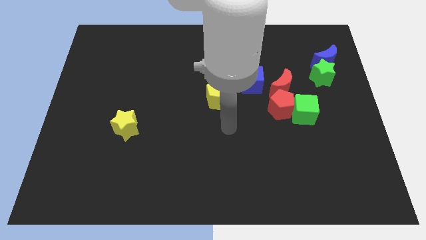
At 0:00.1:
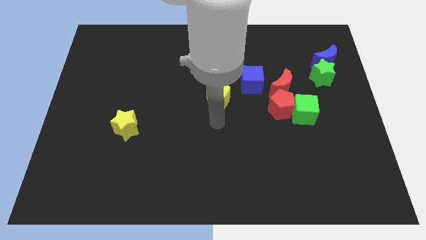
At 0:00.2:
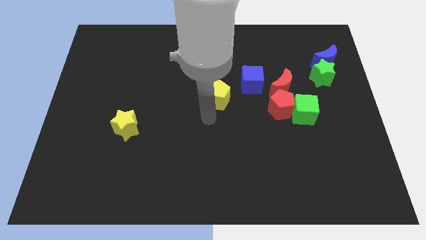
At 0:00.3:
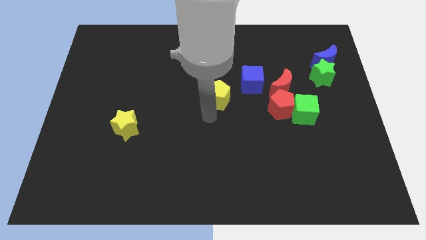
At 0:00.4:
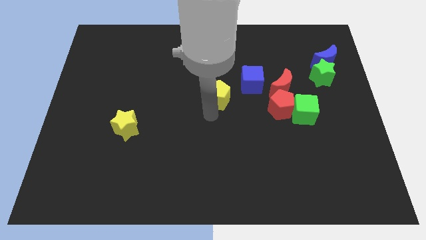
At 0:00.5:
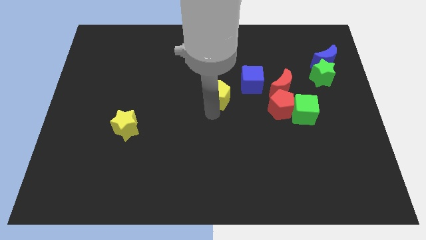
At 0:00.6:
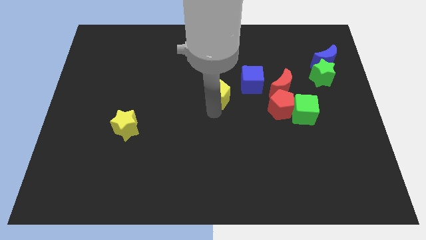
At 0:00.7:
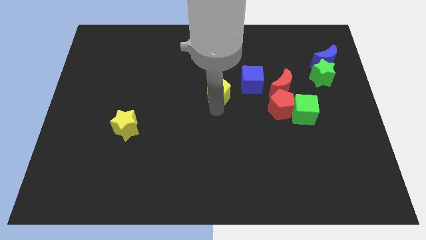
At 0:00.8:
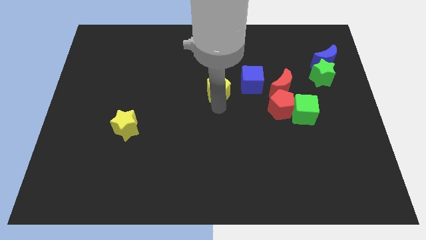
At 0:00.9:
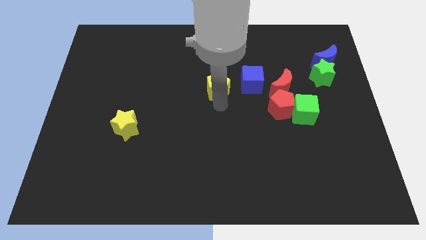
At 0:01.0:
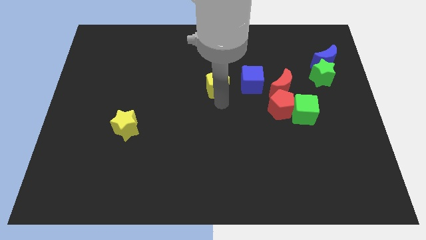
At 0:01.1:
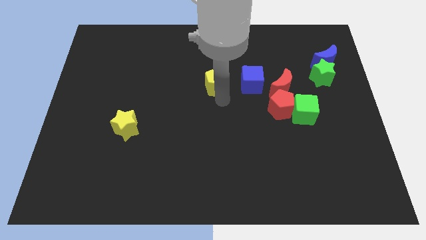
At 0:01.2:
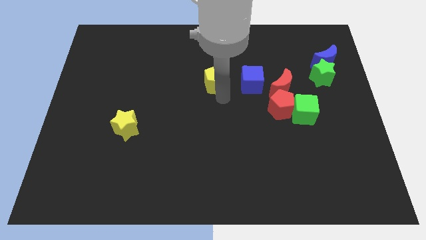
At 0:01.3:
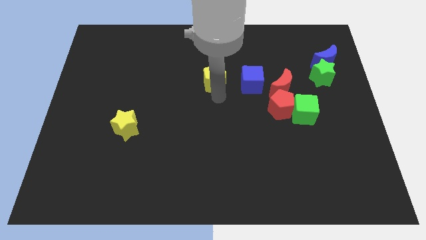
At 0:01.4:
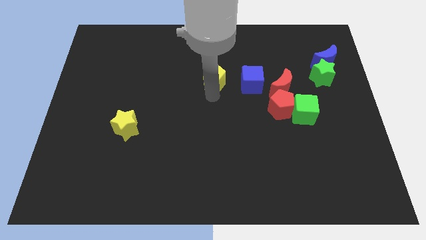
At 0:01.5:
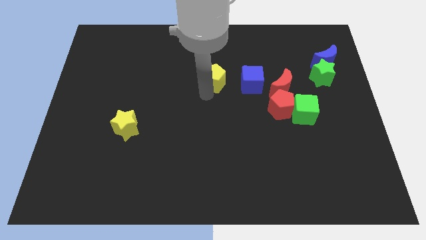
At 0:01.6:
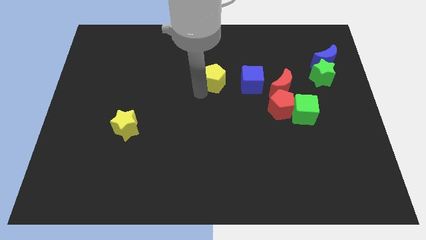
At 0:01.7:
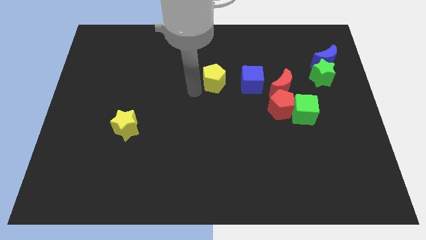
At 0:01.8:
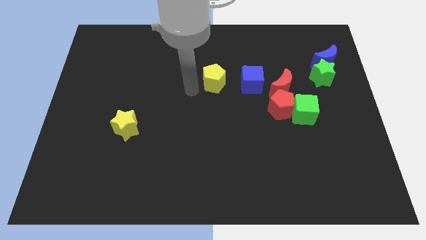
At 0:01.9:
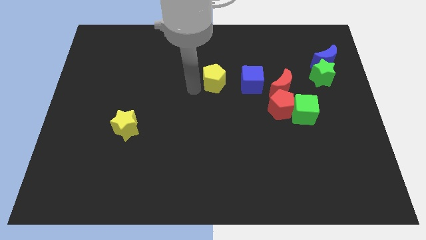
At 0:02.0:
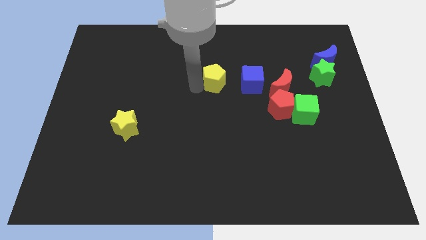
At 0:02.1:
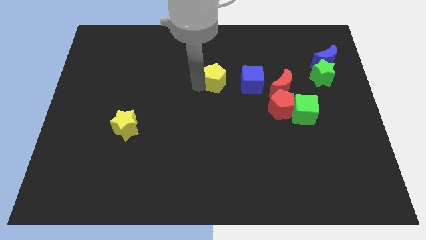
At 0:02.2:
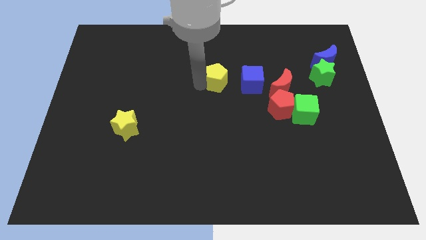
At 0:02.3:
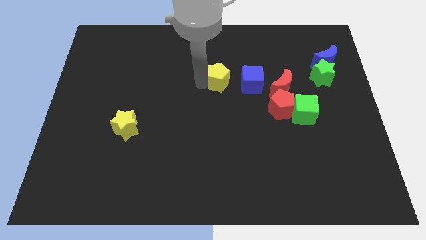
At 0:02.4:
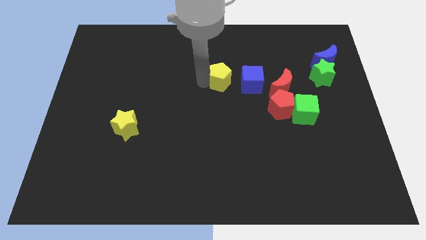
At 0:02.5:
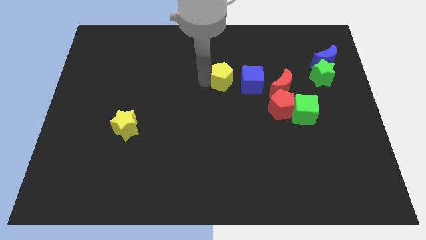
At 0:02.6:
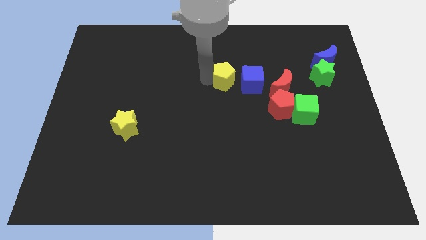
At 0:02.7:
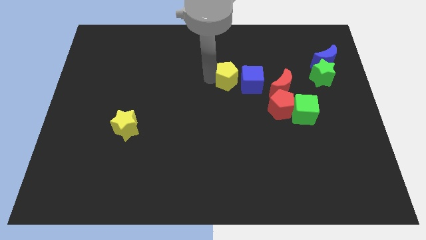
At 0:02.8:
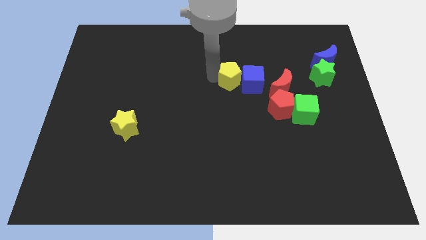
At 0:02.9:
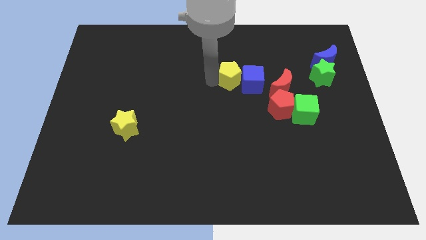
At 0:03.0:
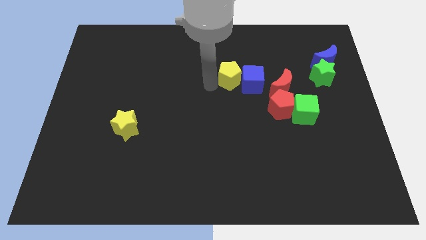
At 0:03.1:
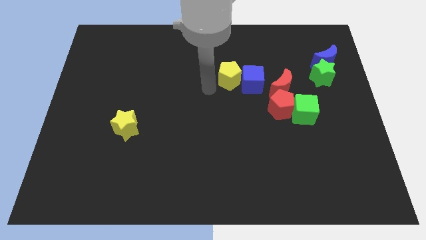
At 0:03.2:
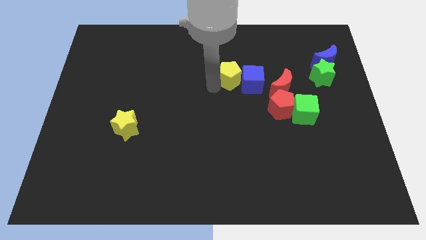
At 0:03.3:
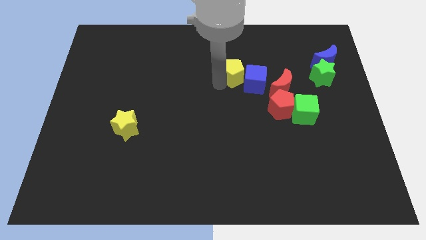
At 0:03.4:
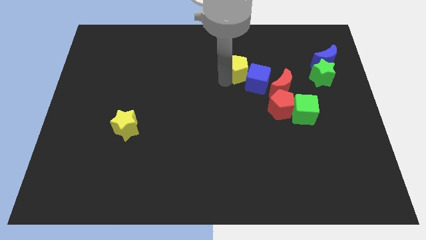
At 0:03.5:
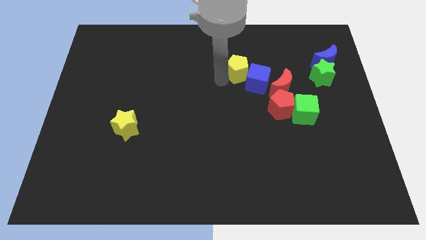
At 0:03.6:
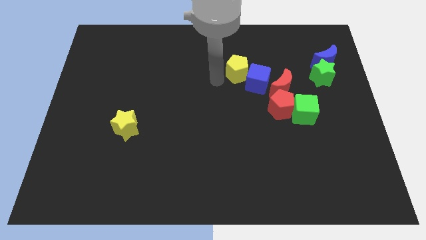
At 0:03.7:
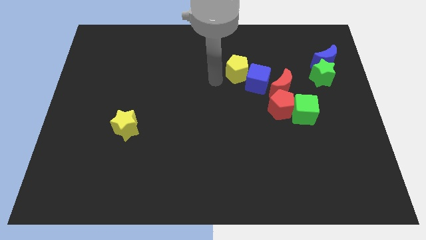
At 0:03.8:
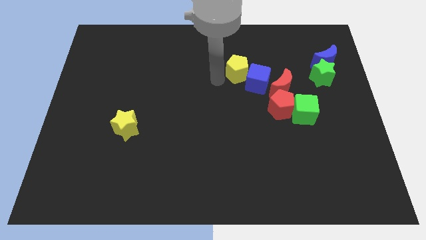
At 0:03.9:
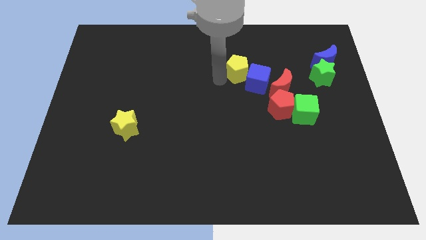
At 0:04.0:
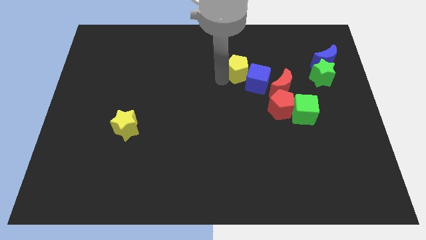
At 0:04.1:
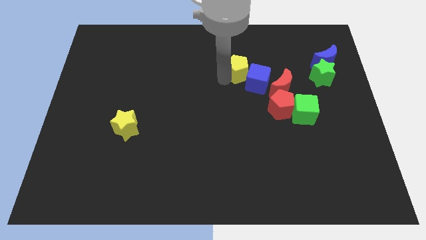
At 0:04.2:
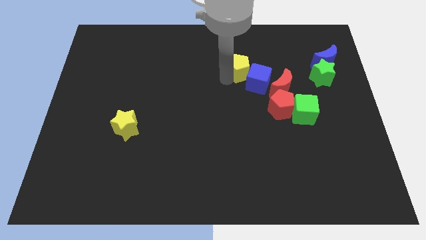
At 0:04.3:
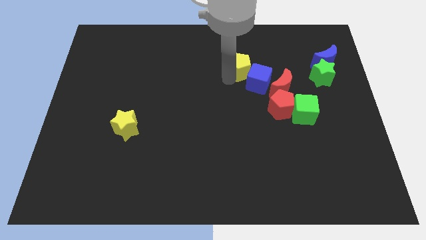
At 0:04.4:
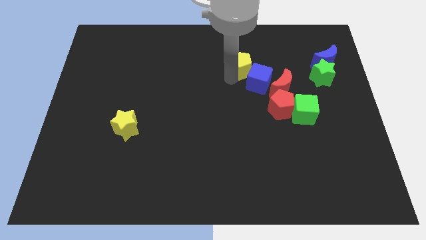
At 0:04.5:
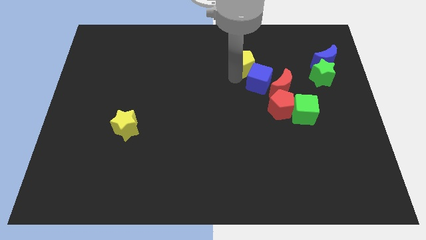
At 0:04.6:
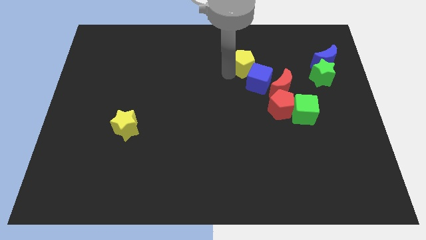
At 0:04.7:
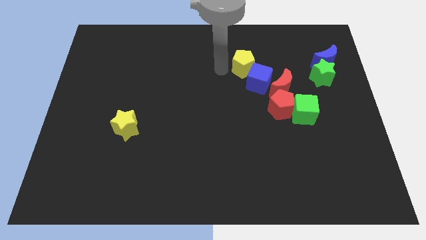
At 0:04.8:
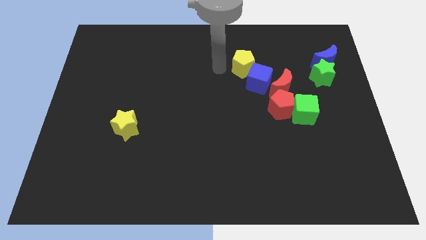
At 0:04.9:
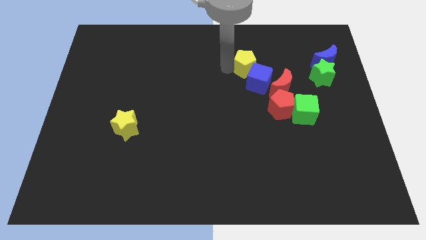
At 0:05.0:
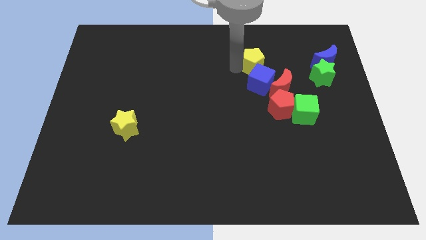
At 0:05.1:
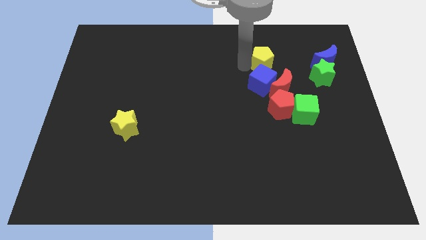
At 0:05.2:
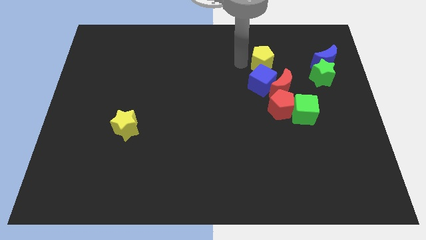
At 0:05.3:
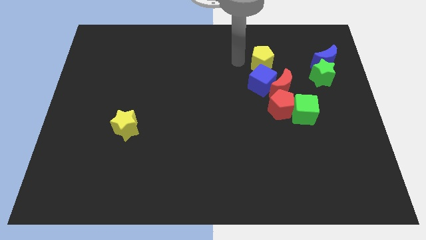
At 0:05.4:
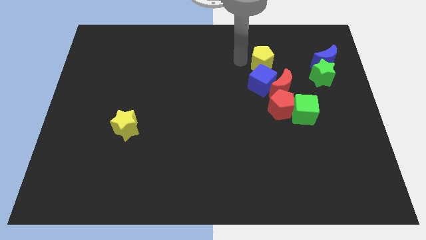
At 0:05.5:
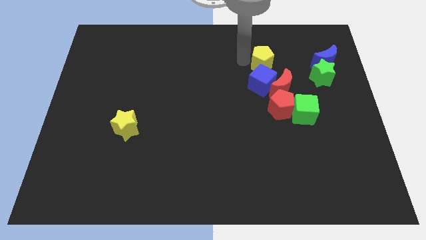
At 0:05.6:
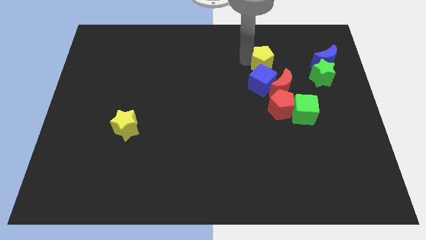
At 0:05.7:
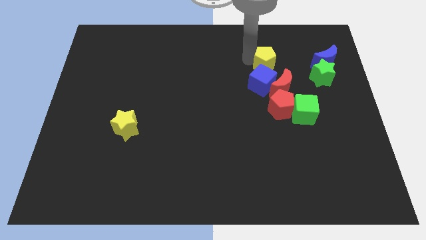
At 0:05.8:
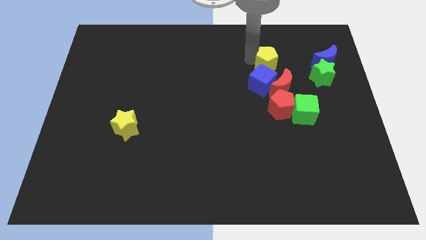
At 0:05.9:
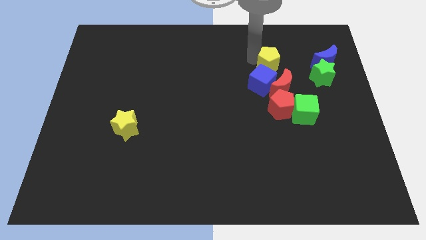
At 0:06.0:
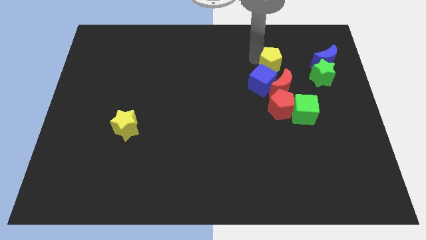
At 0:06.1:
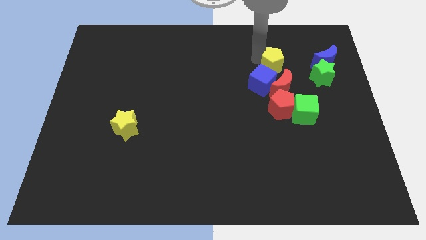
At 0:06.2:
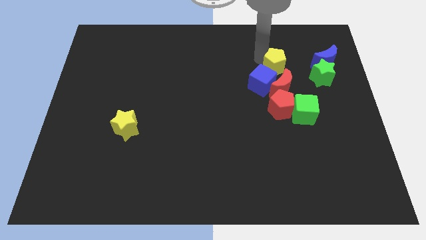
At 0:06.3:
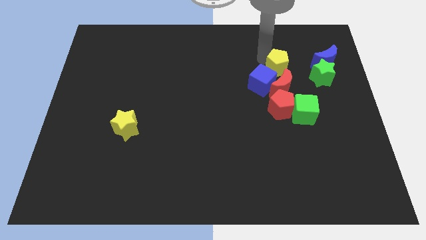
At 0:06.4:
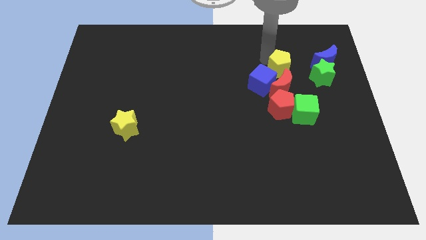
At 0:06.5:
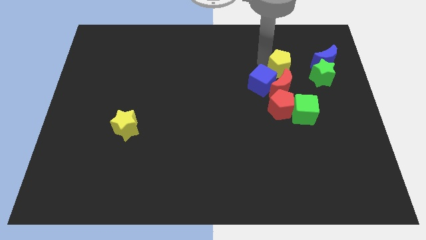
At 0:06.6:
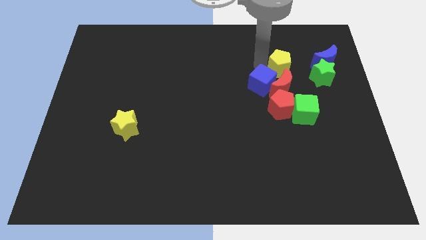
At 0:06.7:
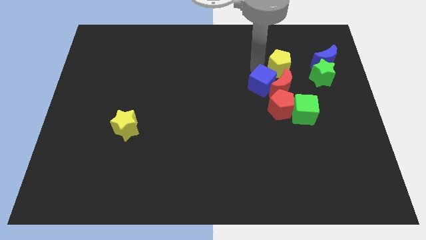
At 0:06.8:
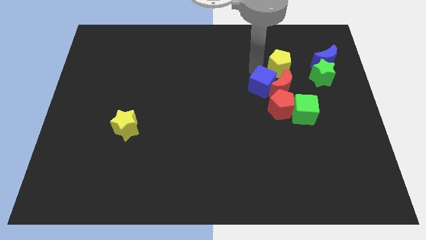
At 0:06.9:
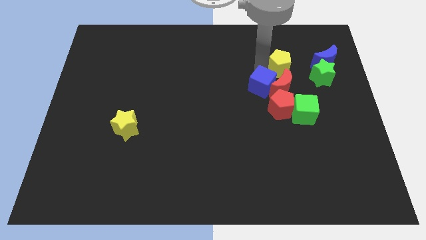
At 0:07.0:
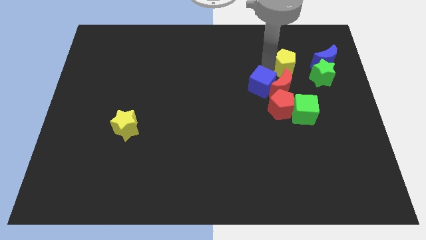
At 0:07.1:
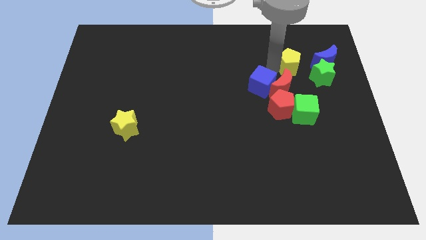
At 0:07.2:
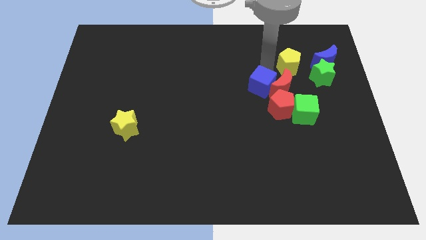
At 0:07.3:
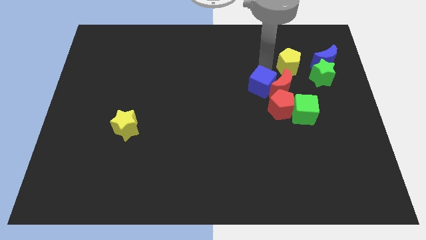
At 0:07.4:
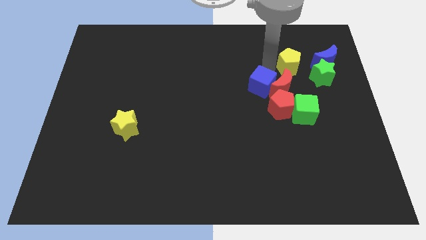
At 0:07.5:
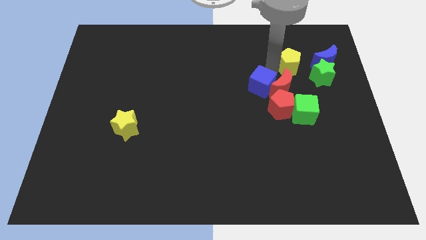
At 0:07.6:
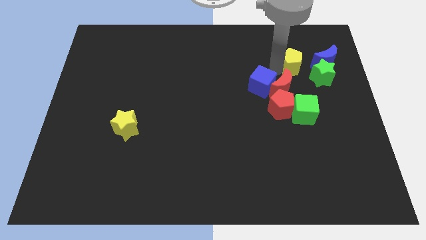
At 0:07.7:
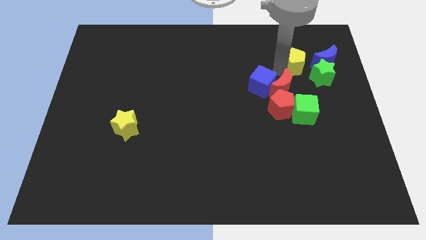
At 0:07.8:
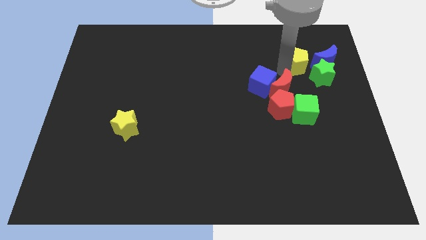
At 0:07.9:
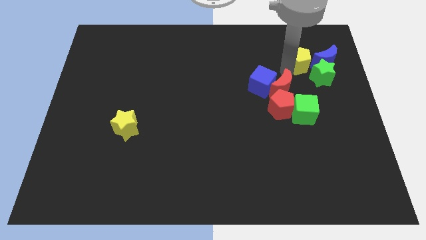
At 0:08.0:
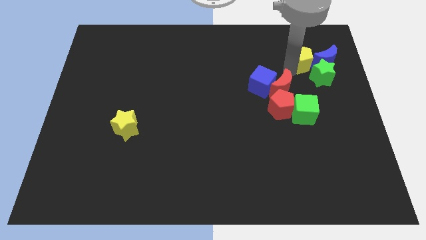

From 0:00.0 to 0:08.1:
push the yellow pentagon close to the blue moon
